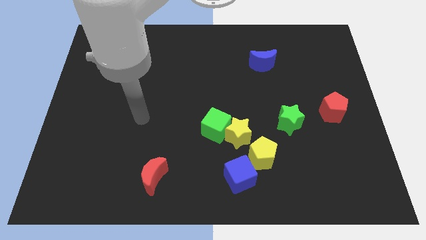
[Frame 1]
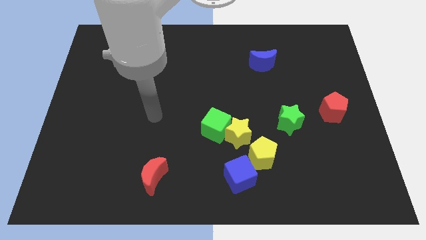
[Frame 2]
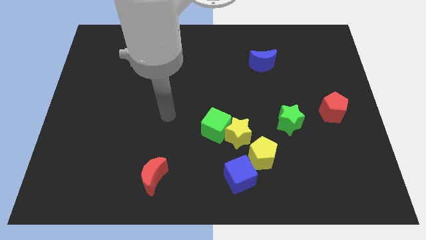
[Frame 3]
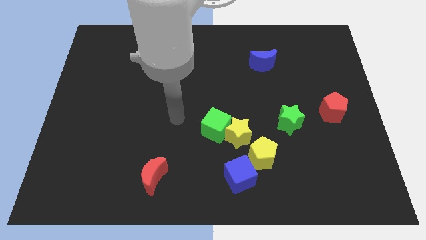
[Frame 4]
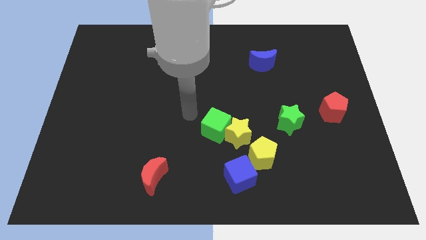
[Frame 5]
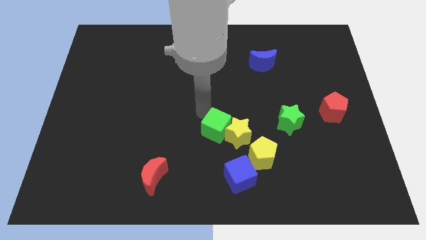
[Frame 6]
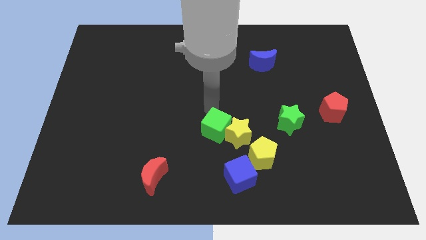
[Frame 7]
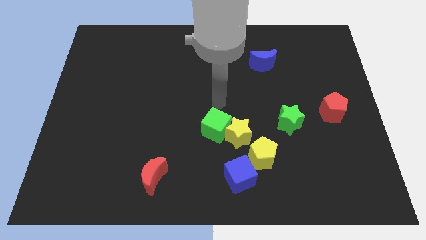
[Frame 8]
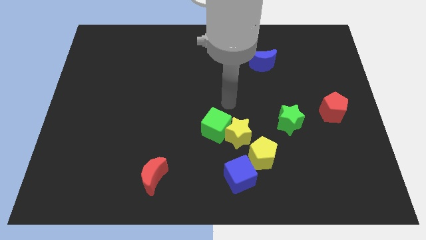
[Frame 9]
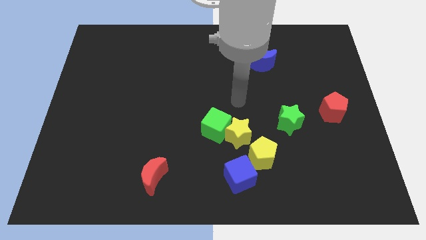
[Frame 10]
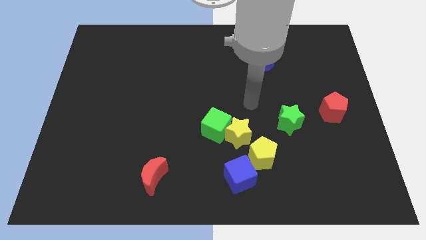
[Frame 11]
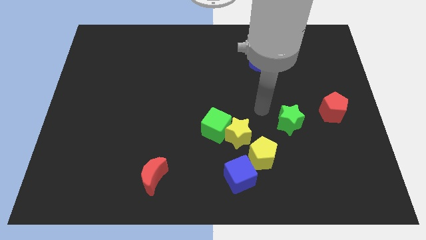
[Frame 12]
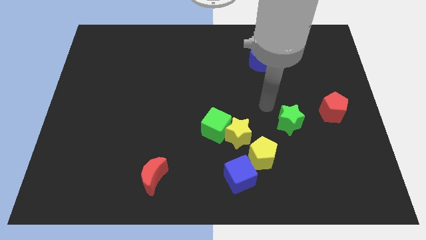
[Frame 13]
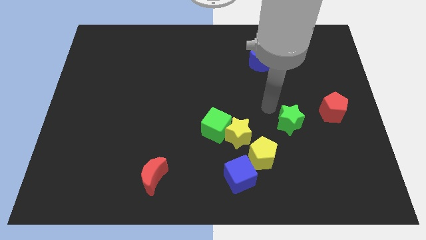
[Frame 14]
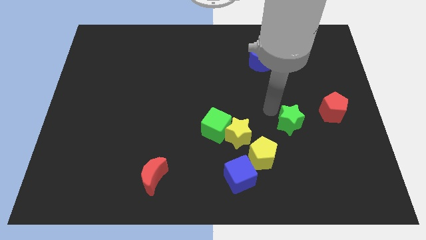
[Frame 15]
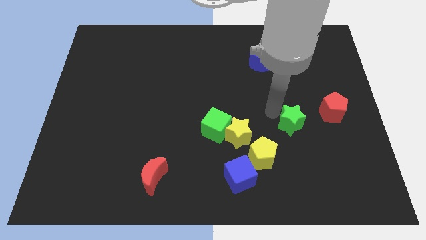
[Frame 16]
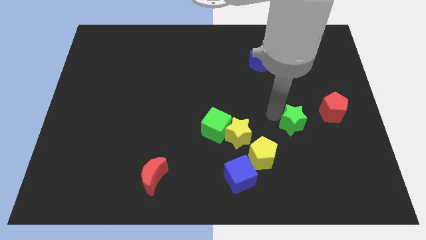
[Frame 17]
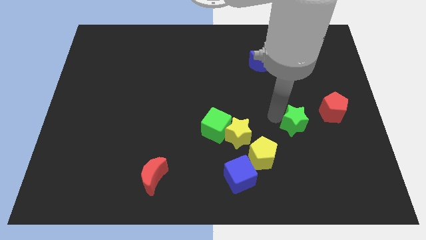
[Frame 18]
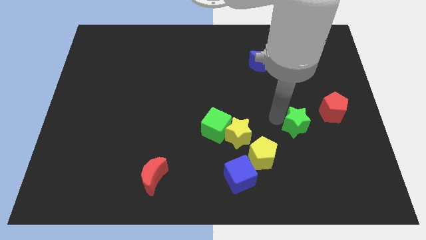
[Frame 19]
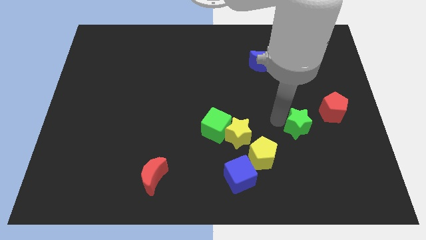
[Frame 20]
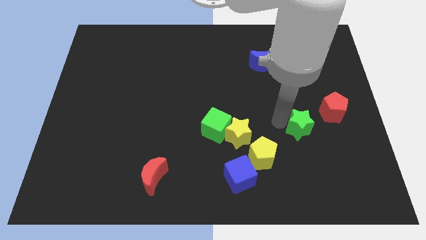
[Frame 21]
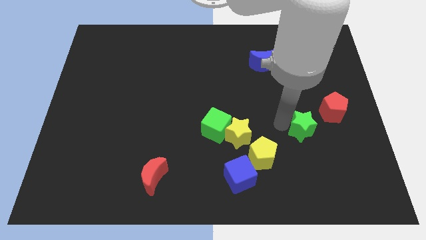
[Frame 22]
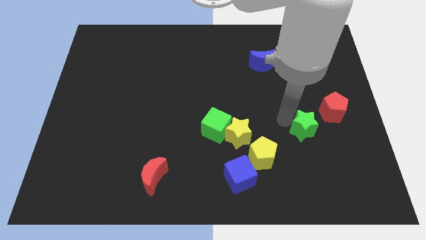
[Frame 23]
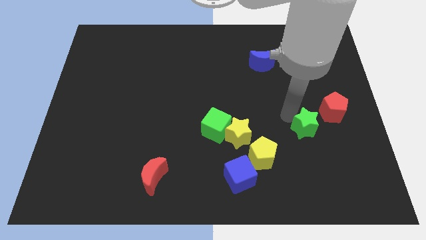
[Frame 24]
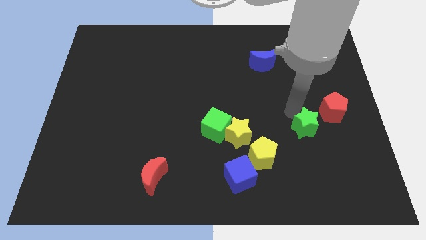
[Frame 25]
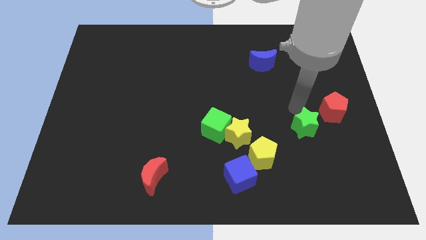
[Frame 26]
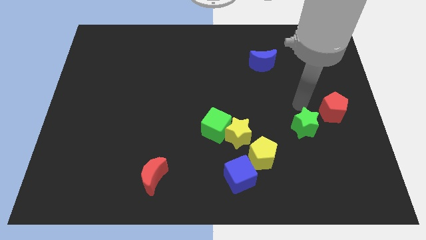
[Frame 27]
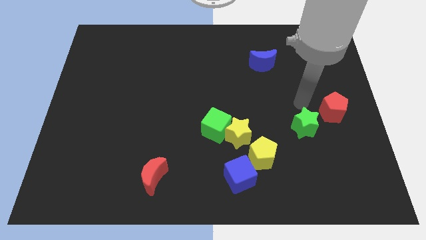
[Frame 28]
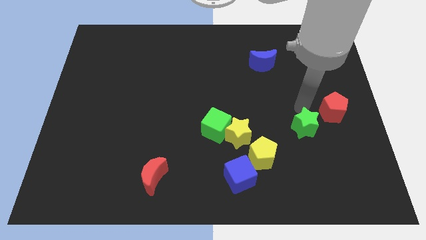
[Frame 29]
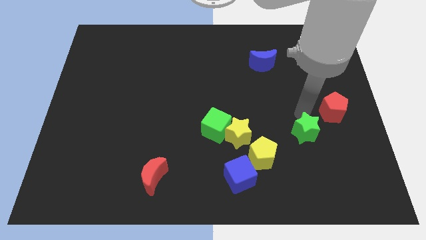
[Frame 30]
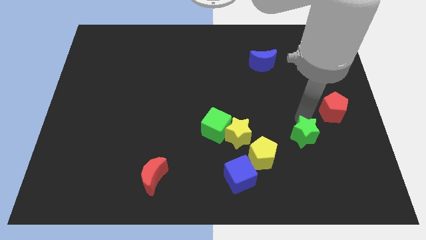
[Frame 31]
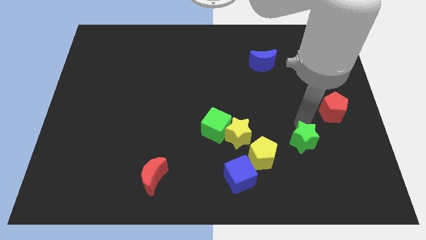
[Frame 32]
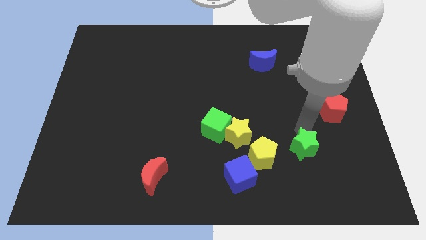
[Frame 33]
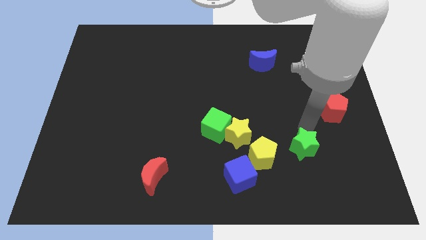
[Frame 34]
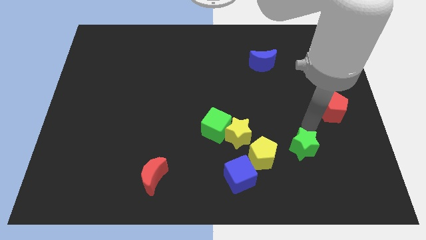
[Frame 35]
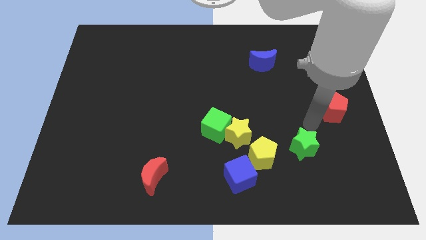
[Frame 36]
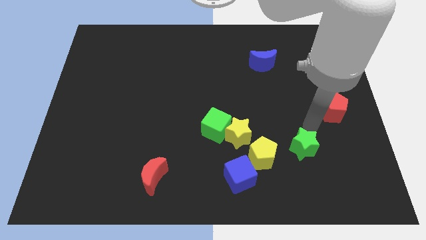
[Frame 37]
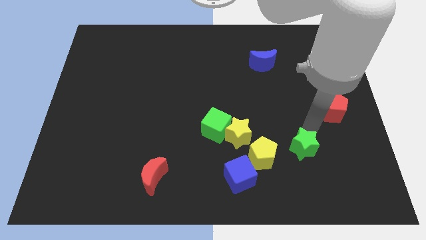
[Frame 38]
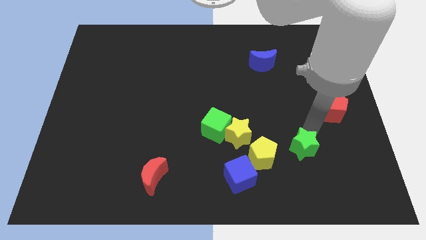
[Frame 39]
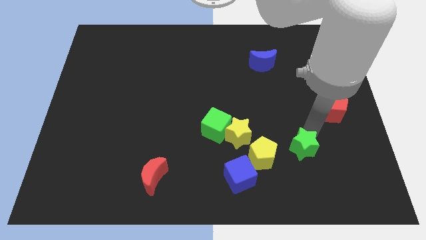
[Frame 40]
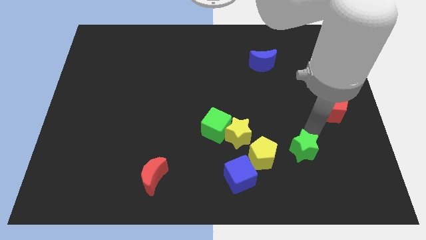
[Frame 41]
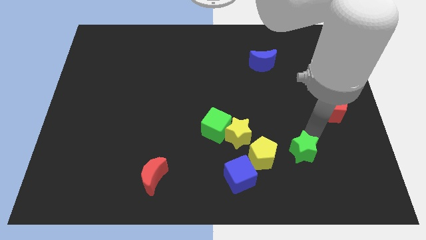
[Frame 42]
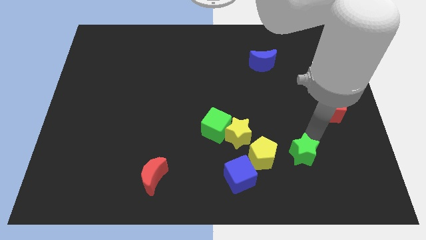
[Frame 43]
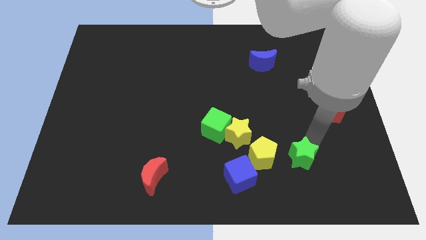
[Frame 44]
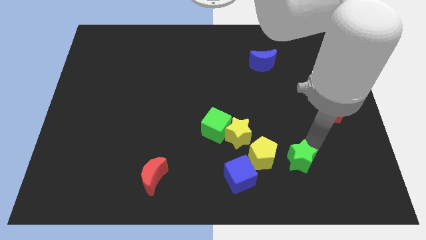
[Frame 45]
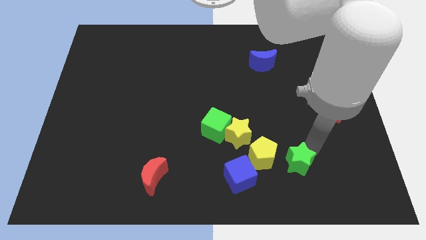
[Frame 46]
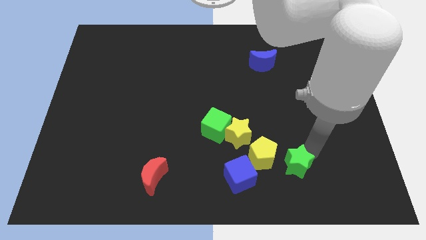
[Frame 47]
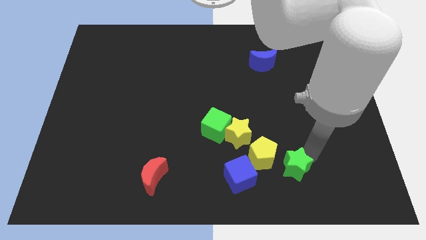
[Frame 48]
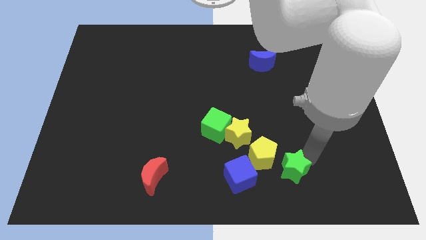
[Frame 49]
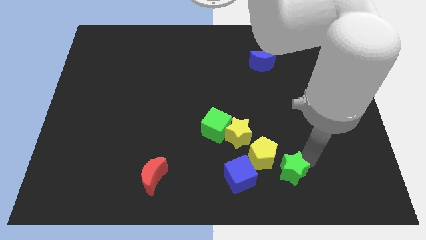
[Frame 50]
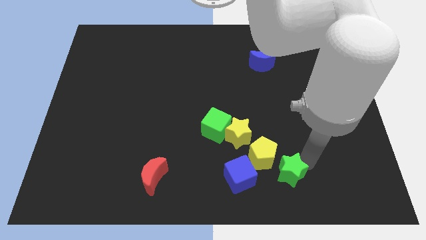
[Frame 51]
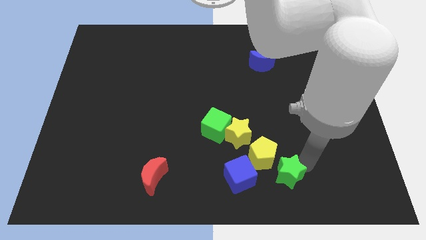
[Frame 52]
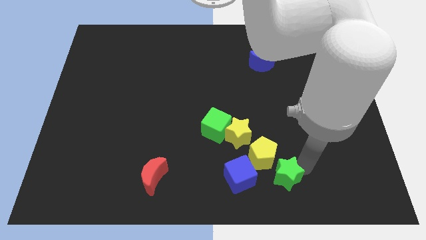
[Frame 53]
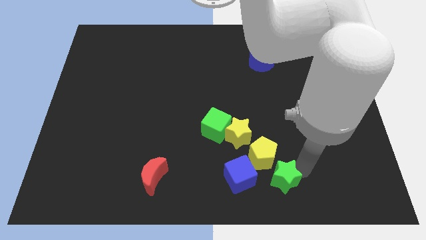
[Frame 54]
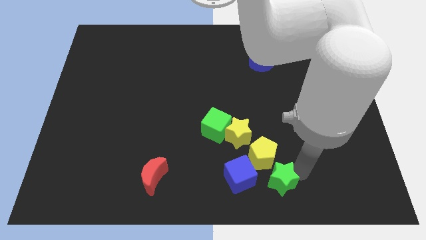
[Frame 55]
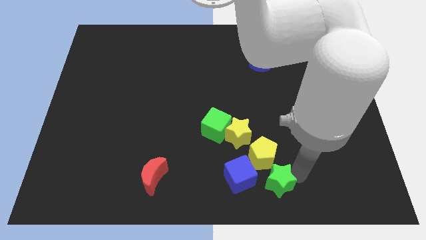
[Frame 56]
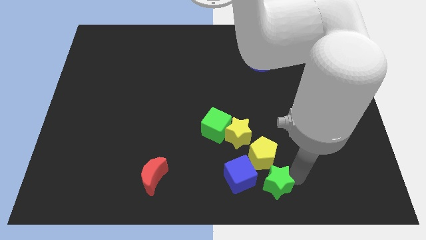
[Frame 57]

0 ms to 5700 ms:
push the green star to the bottom side
